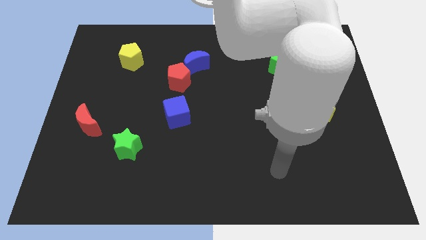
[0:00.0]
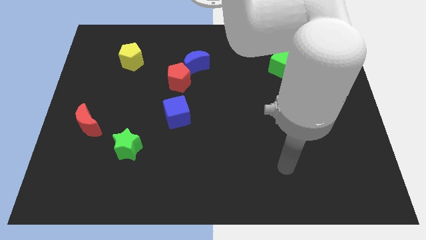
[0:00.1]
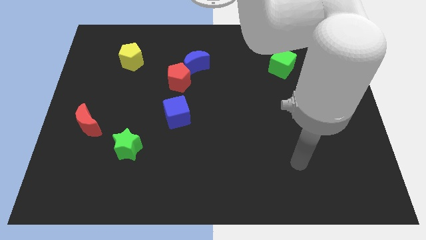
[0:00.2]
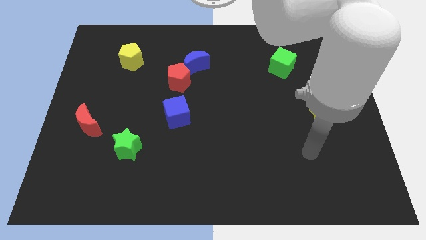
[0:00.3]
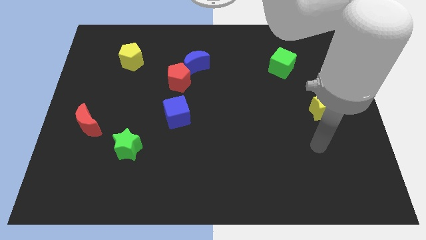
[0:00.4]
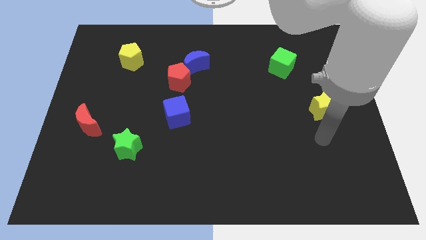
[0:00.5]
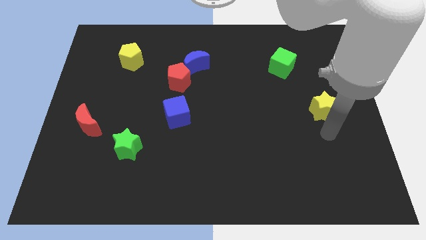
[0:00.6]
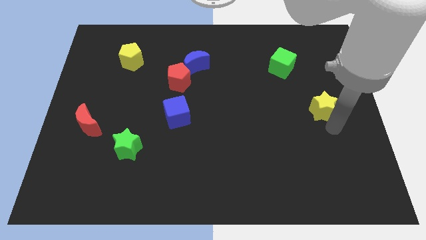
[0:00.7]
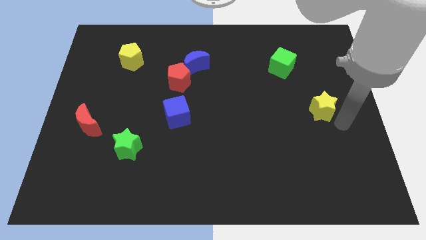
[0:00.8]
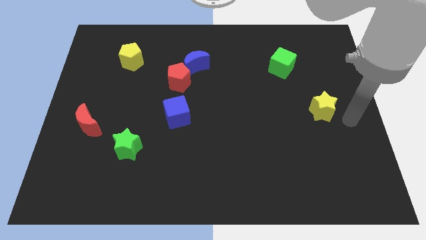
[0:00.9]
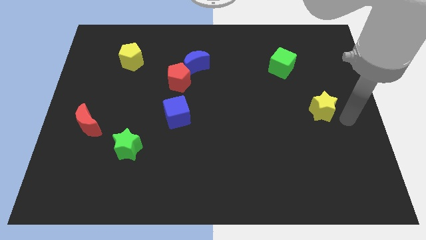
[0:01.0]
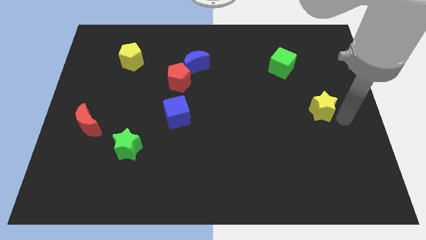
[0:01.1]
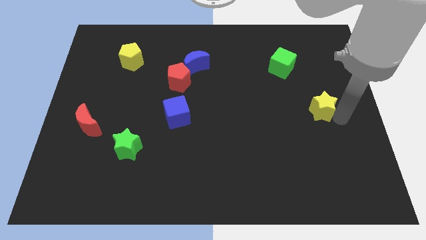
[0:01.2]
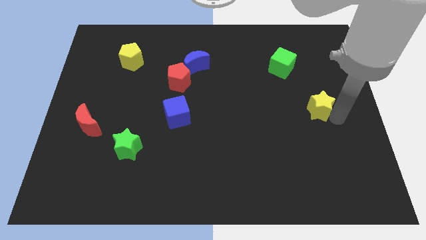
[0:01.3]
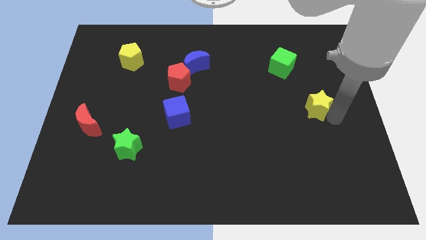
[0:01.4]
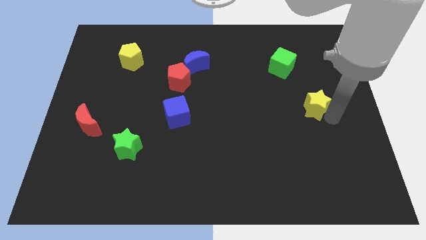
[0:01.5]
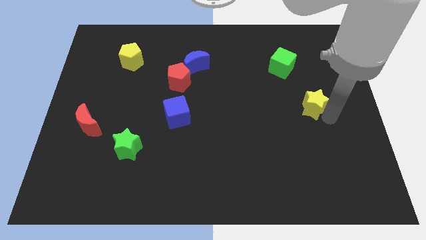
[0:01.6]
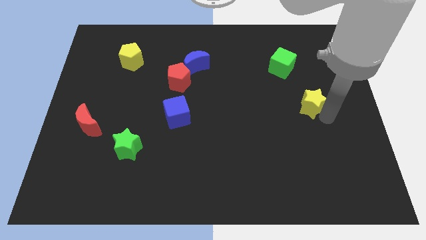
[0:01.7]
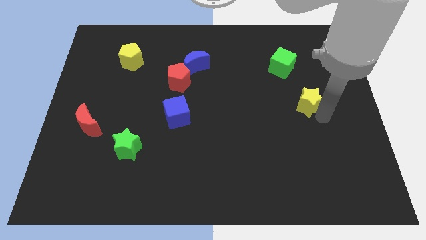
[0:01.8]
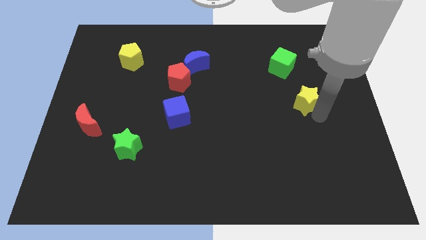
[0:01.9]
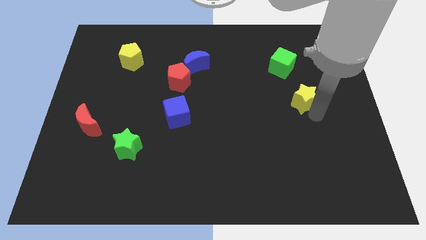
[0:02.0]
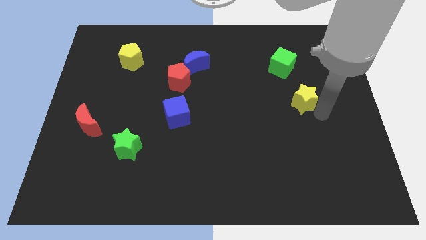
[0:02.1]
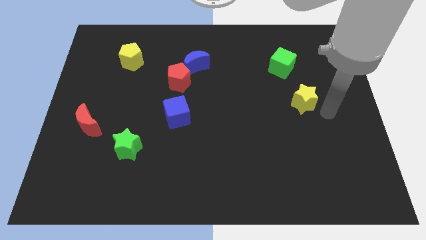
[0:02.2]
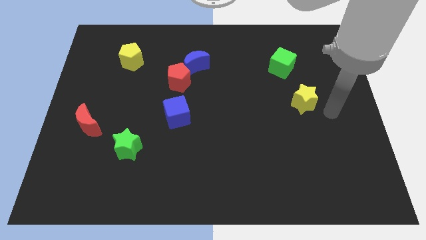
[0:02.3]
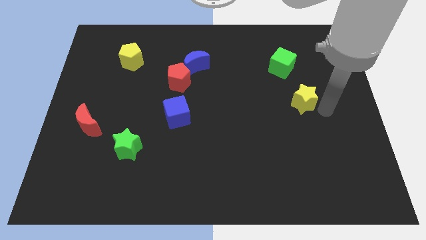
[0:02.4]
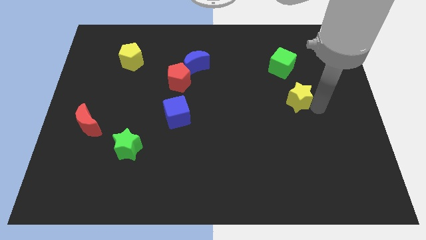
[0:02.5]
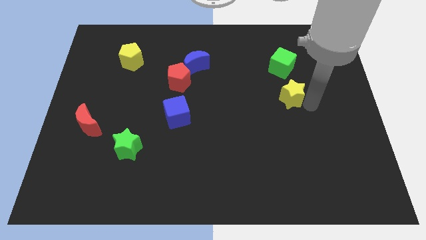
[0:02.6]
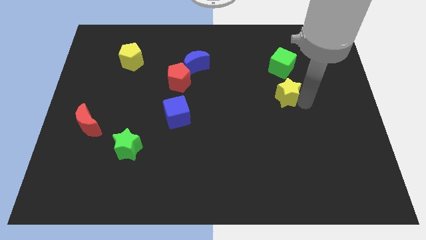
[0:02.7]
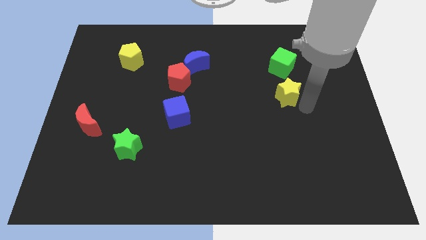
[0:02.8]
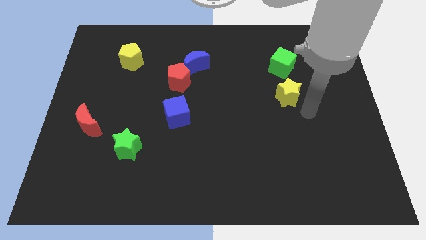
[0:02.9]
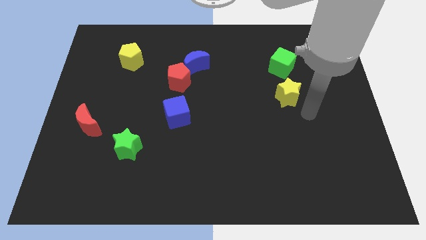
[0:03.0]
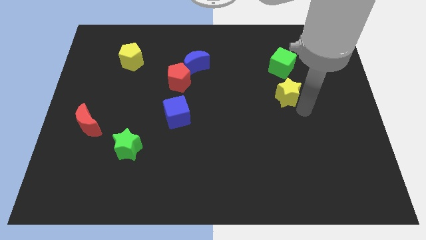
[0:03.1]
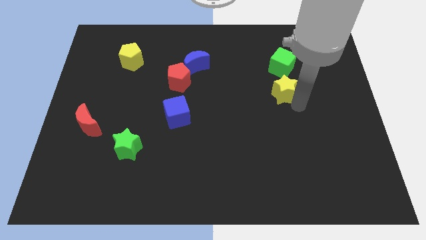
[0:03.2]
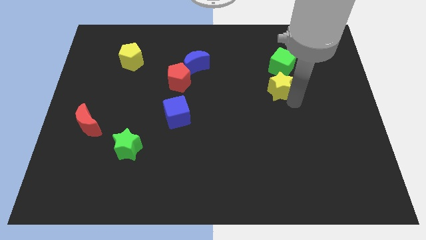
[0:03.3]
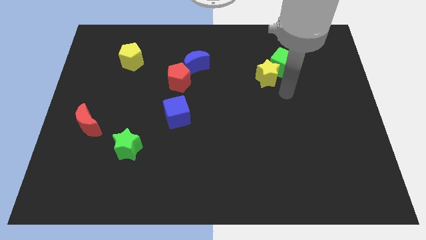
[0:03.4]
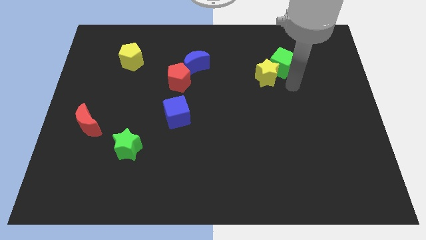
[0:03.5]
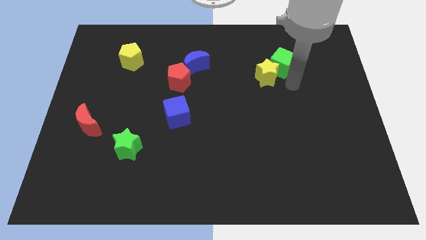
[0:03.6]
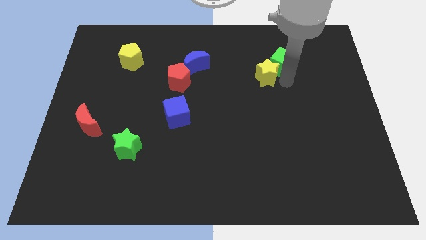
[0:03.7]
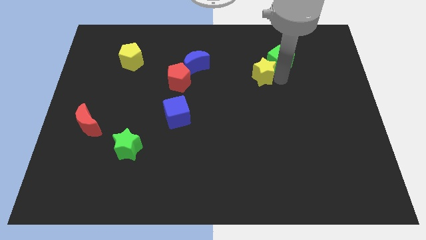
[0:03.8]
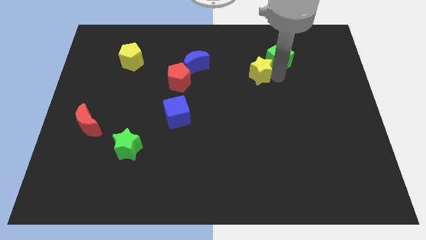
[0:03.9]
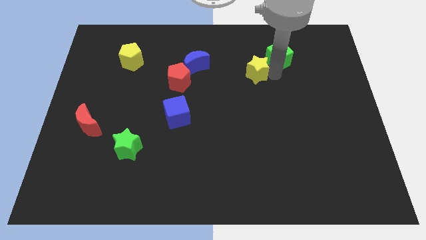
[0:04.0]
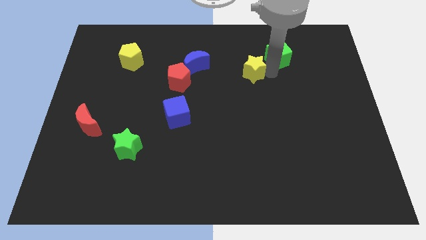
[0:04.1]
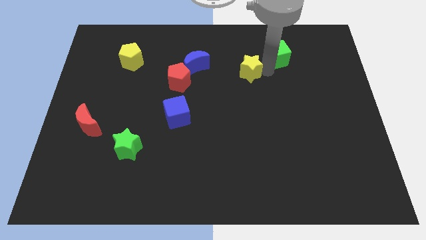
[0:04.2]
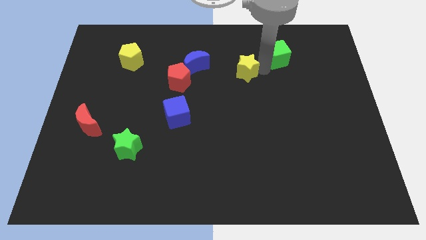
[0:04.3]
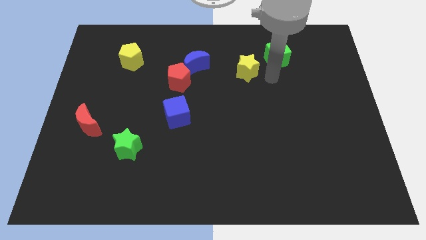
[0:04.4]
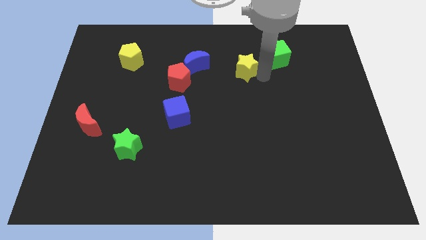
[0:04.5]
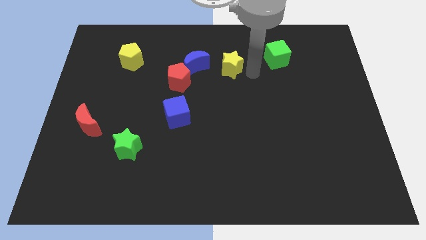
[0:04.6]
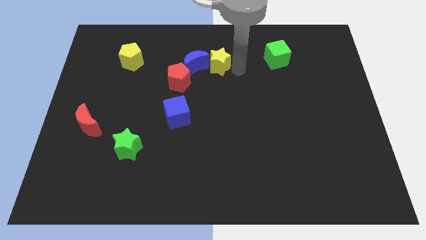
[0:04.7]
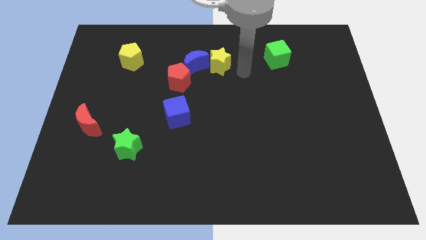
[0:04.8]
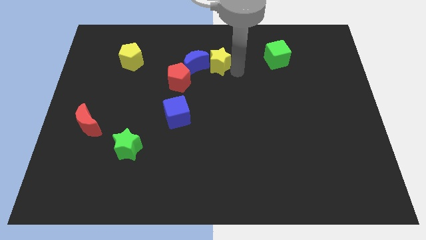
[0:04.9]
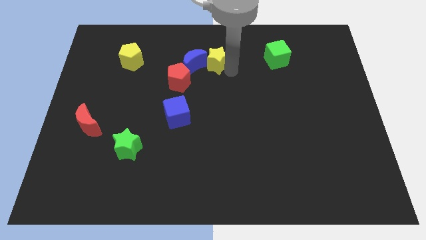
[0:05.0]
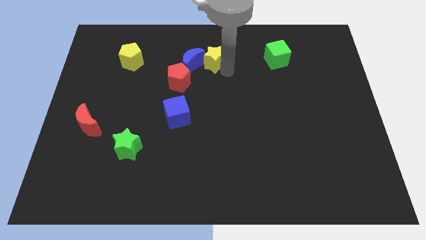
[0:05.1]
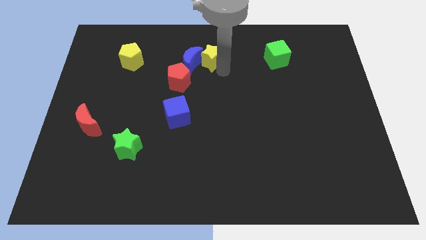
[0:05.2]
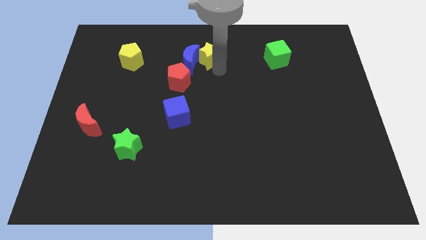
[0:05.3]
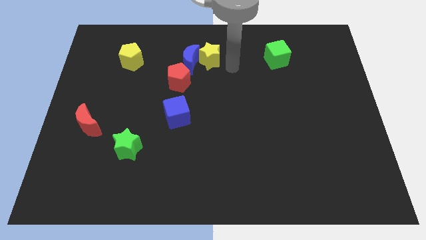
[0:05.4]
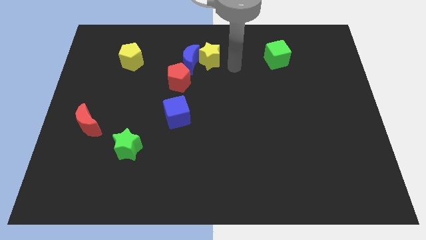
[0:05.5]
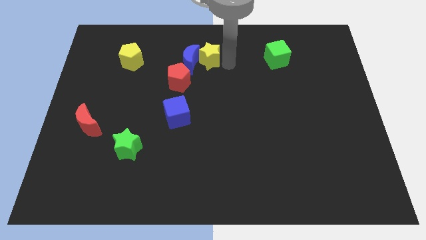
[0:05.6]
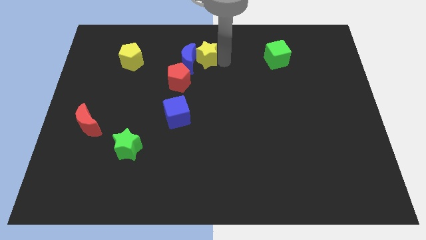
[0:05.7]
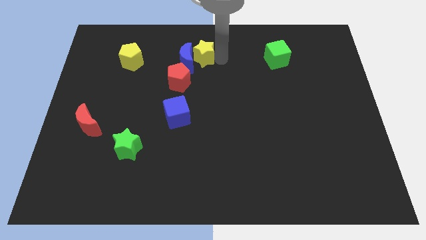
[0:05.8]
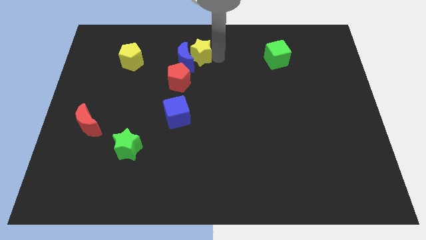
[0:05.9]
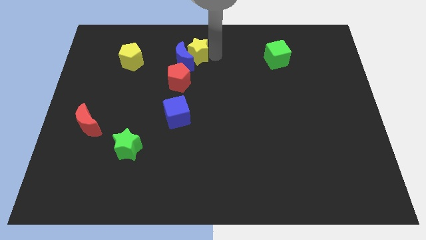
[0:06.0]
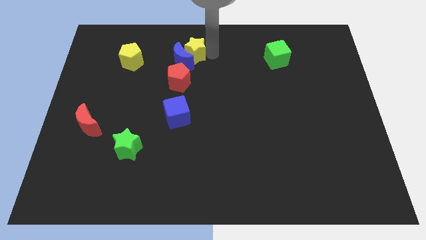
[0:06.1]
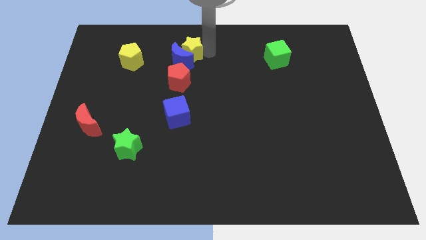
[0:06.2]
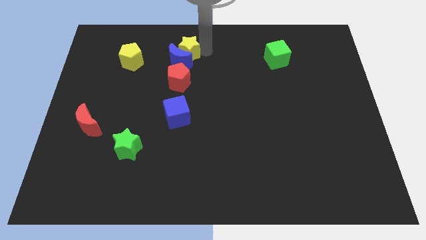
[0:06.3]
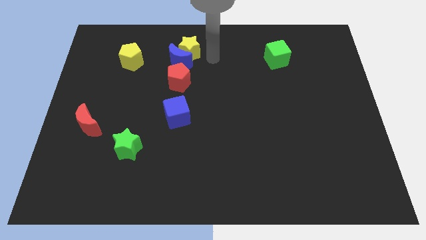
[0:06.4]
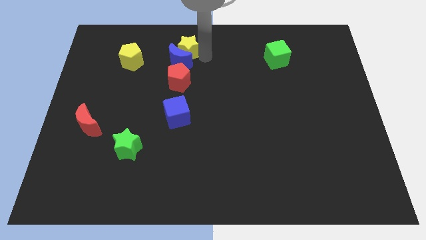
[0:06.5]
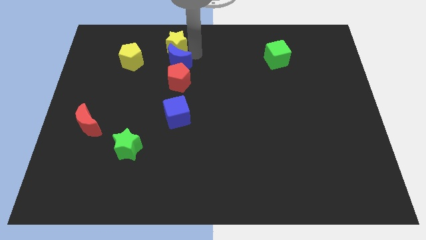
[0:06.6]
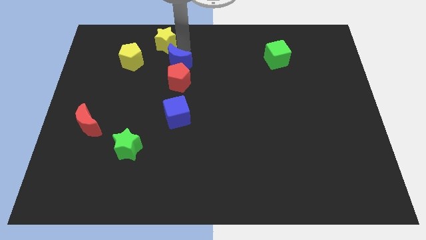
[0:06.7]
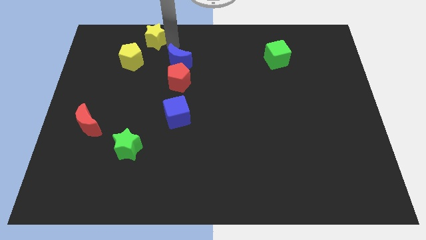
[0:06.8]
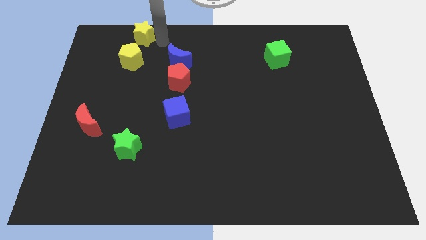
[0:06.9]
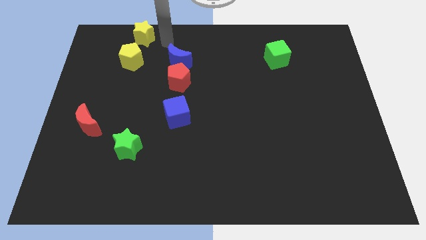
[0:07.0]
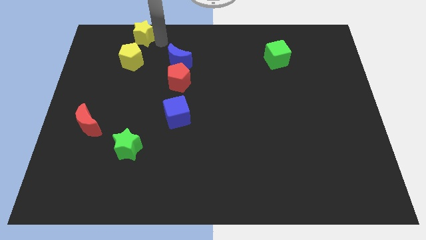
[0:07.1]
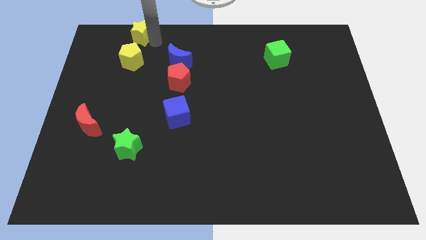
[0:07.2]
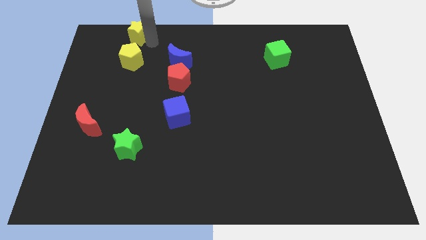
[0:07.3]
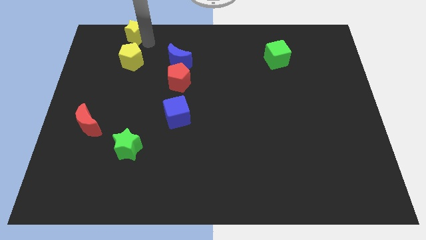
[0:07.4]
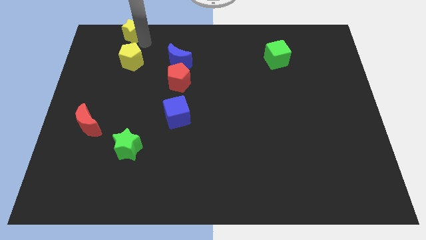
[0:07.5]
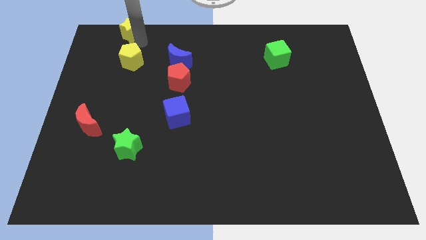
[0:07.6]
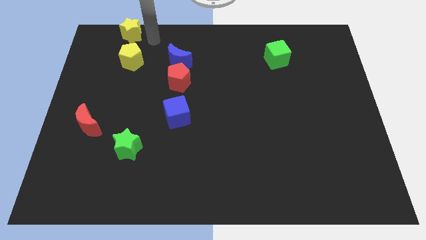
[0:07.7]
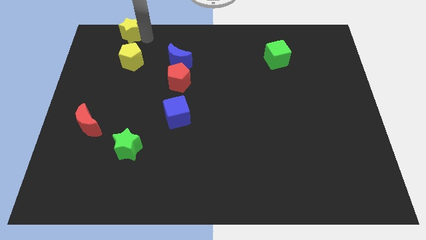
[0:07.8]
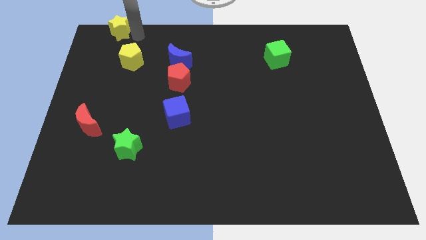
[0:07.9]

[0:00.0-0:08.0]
put the yellow star to the top left
